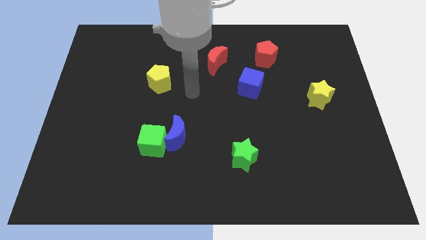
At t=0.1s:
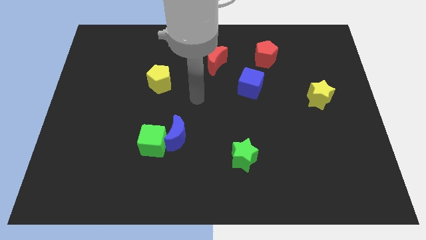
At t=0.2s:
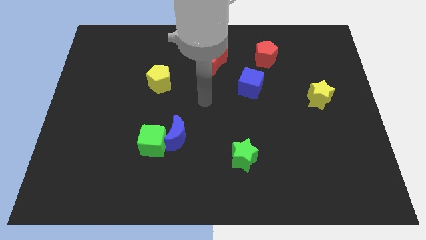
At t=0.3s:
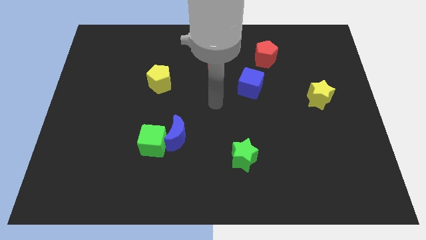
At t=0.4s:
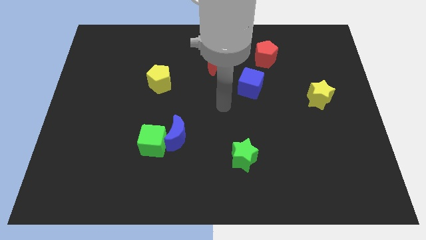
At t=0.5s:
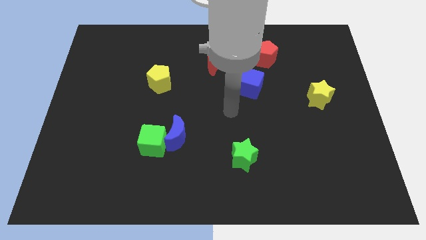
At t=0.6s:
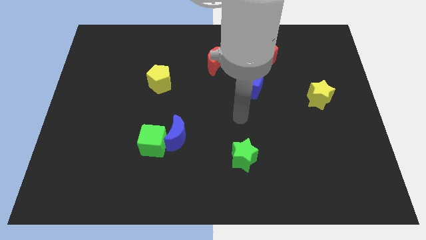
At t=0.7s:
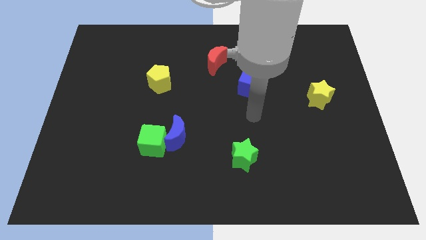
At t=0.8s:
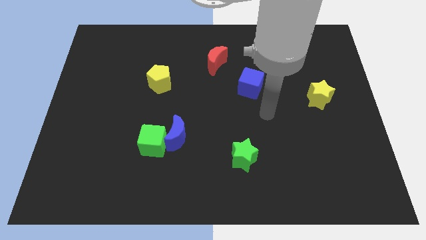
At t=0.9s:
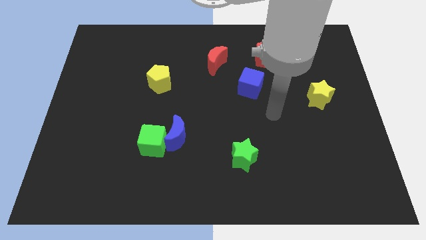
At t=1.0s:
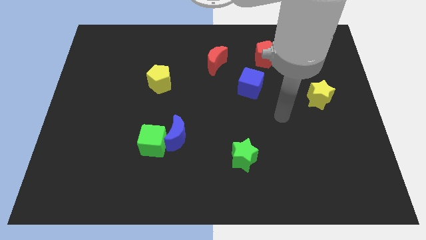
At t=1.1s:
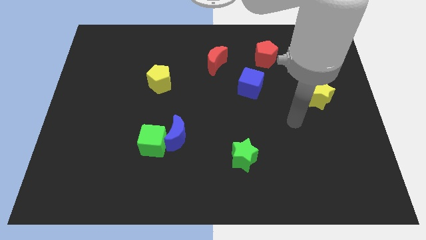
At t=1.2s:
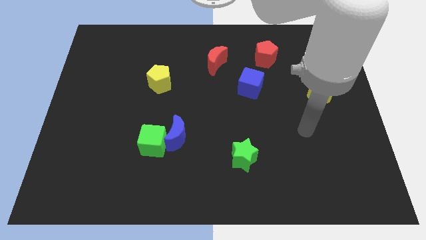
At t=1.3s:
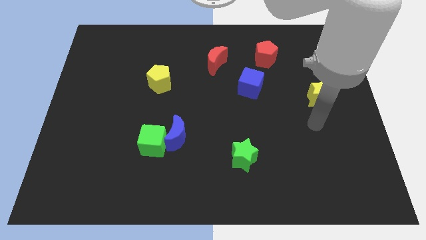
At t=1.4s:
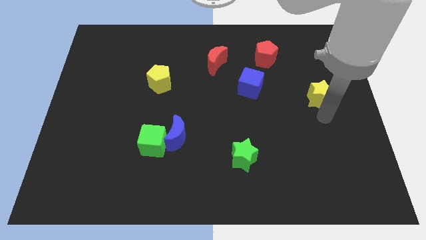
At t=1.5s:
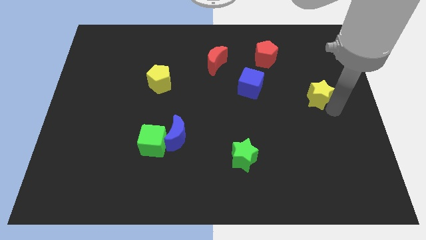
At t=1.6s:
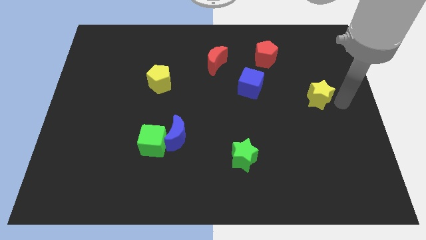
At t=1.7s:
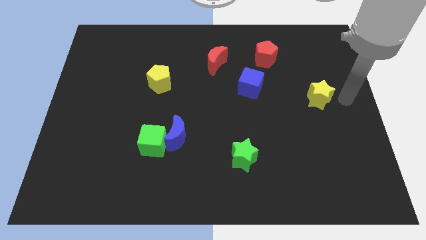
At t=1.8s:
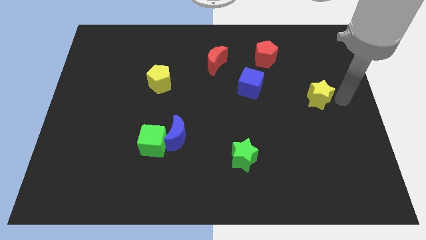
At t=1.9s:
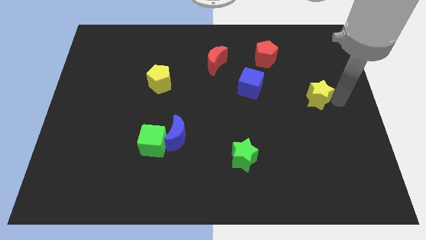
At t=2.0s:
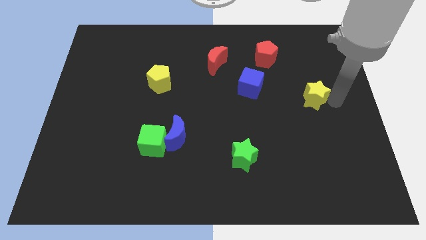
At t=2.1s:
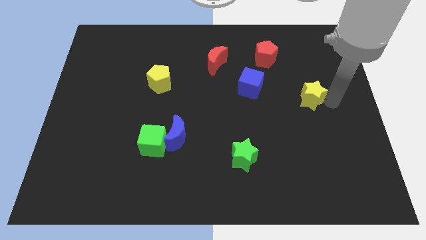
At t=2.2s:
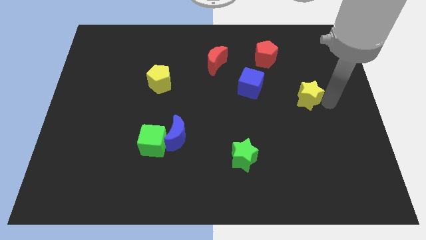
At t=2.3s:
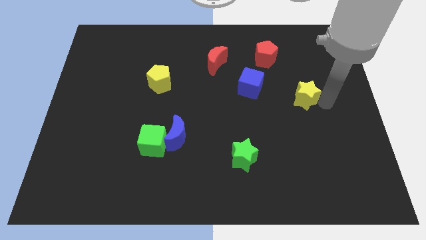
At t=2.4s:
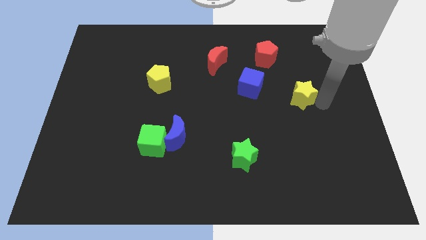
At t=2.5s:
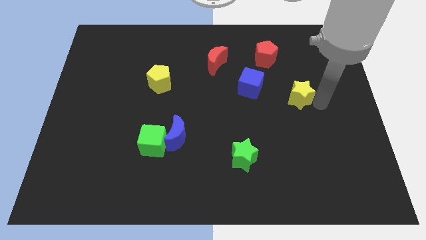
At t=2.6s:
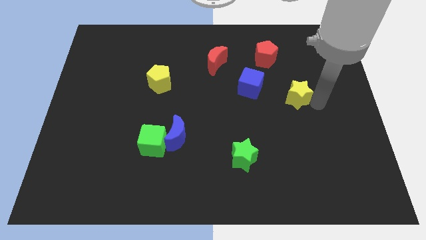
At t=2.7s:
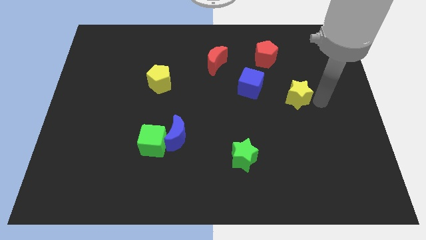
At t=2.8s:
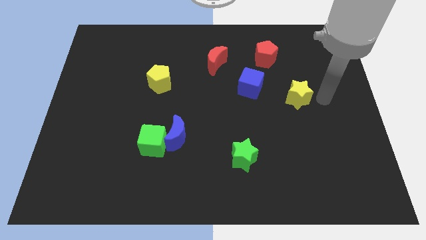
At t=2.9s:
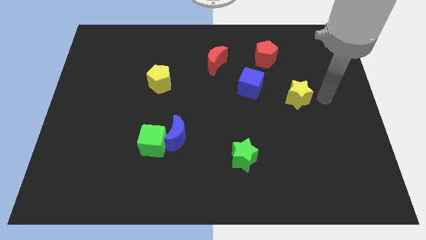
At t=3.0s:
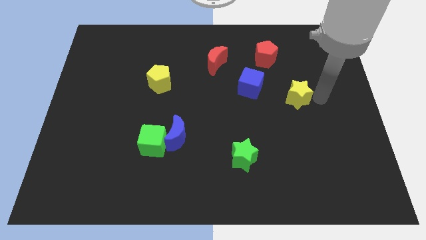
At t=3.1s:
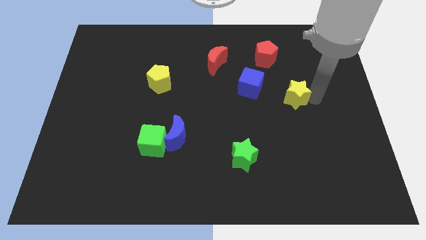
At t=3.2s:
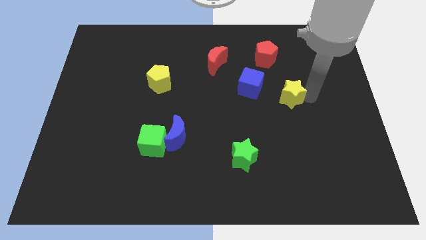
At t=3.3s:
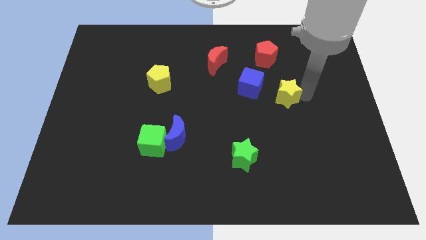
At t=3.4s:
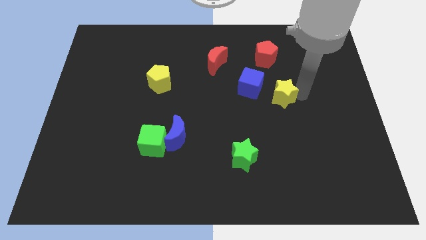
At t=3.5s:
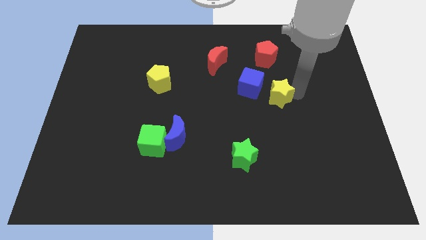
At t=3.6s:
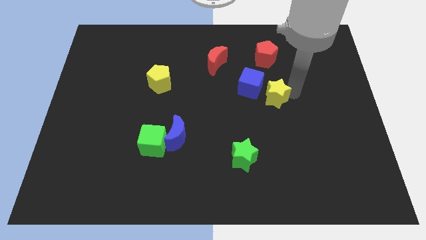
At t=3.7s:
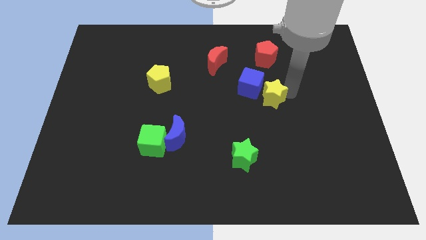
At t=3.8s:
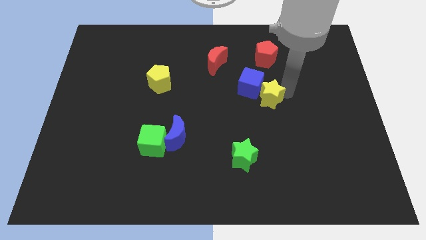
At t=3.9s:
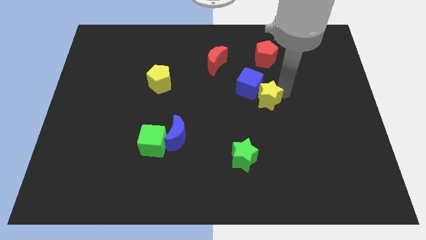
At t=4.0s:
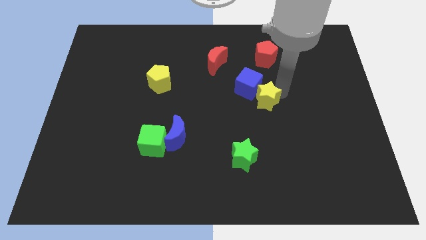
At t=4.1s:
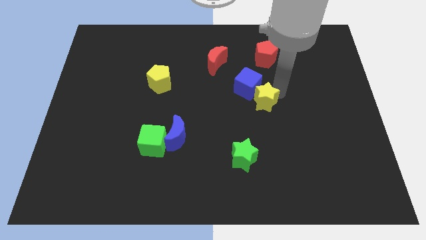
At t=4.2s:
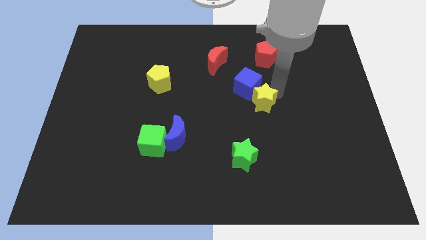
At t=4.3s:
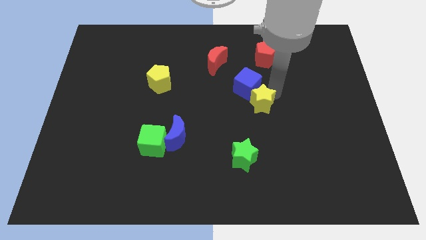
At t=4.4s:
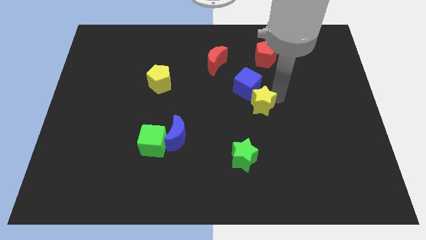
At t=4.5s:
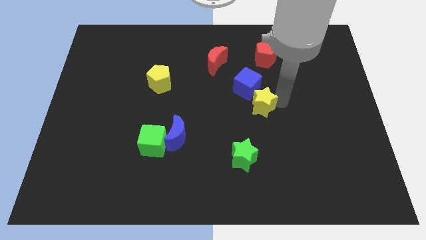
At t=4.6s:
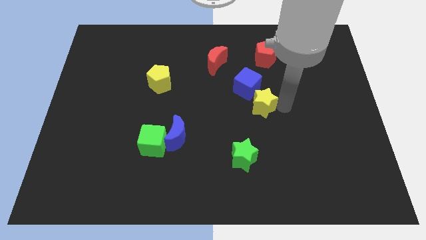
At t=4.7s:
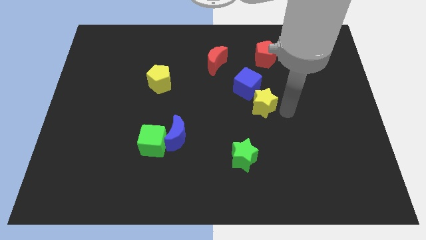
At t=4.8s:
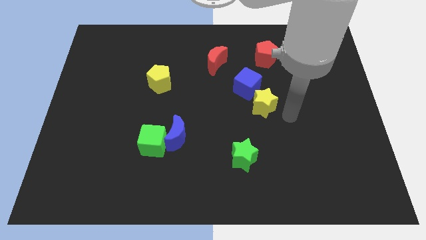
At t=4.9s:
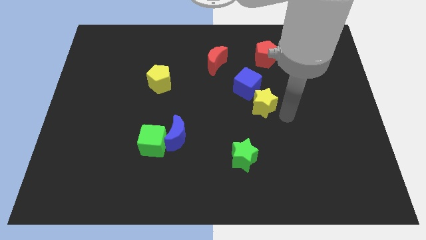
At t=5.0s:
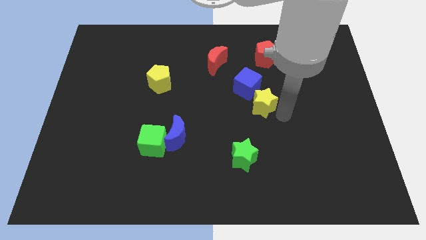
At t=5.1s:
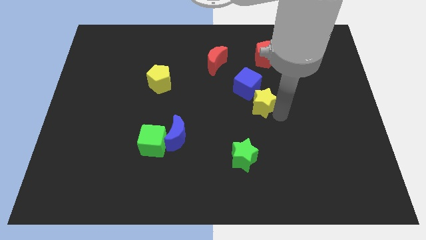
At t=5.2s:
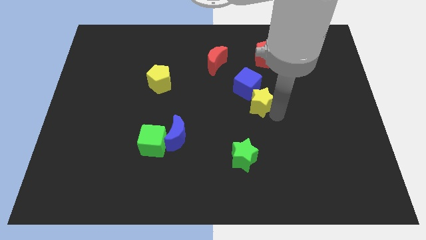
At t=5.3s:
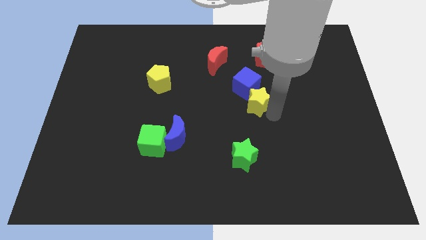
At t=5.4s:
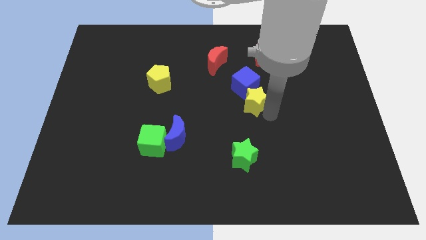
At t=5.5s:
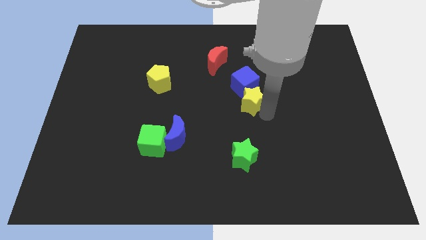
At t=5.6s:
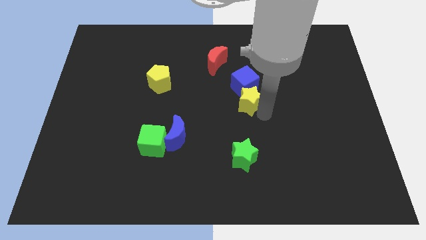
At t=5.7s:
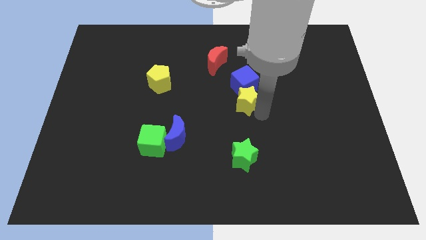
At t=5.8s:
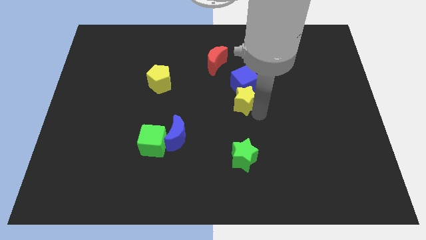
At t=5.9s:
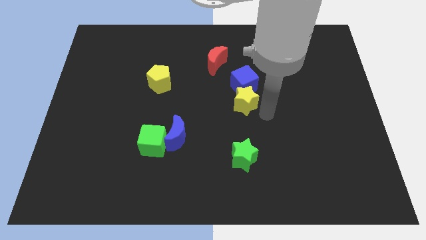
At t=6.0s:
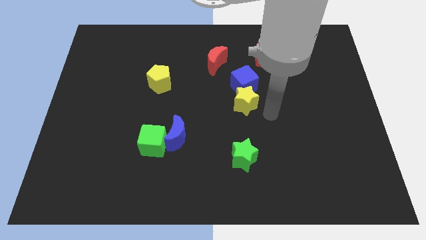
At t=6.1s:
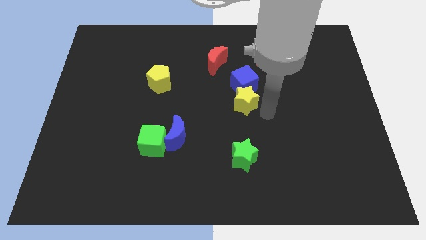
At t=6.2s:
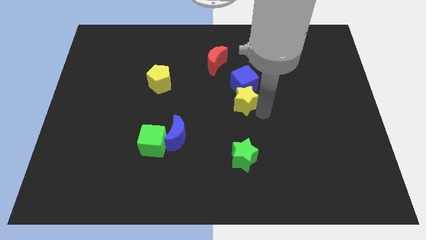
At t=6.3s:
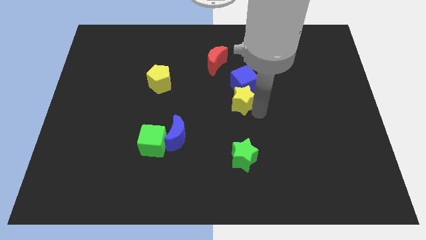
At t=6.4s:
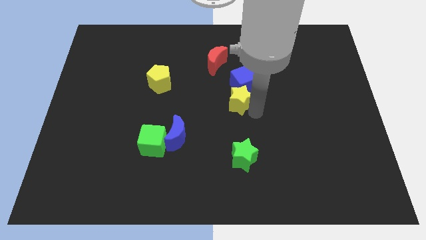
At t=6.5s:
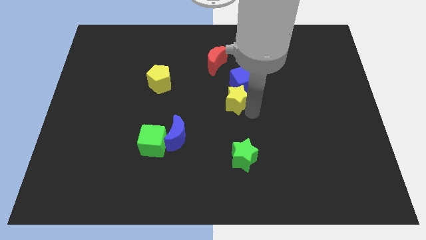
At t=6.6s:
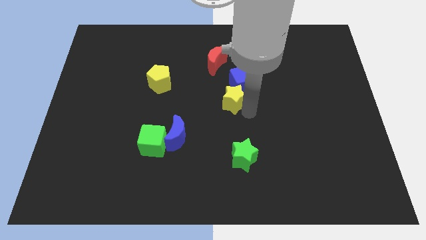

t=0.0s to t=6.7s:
put the yellow star to the bottom of the red moon
